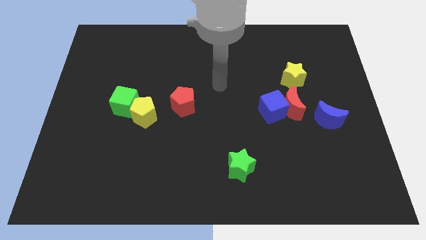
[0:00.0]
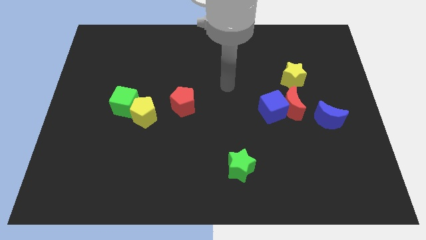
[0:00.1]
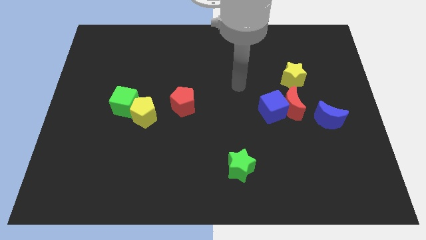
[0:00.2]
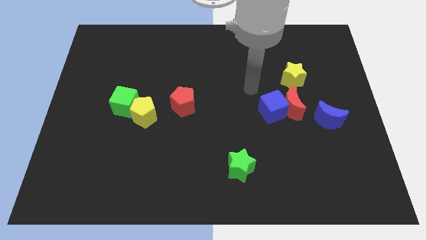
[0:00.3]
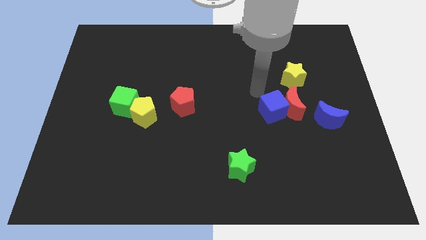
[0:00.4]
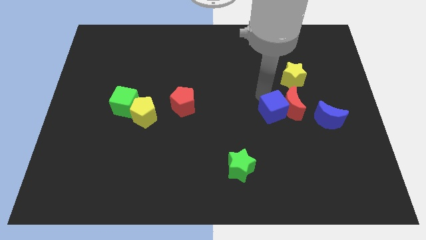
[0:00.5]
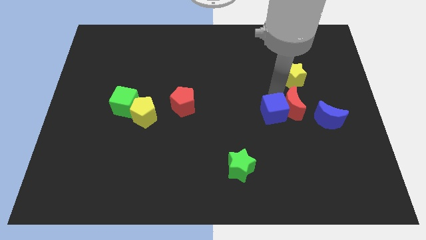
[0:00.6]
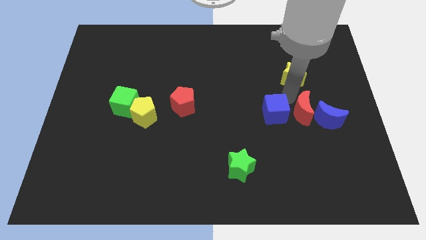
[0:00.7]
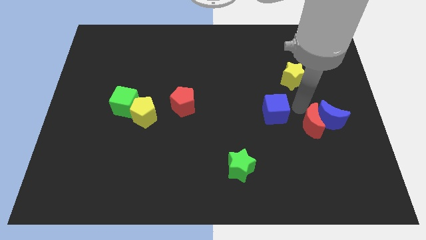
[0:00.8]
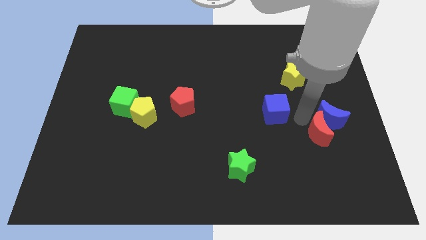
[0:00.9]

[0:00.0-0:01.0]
move the blue cube away from the red moon

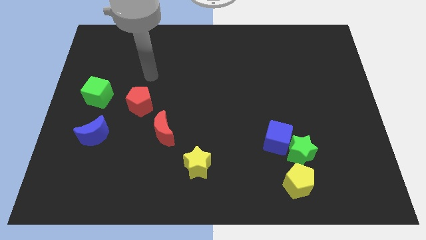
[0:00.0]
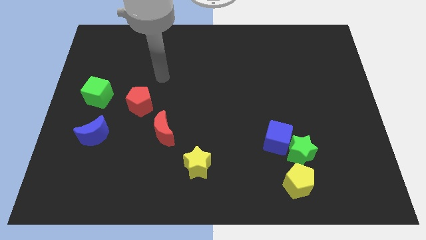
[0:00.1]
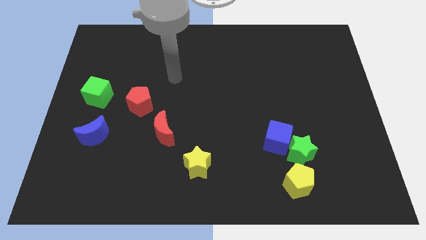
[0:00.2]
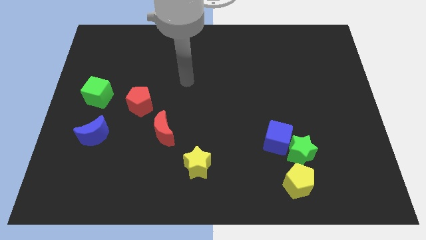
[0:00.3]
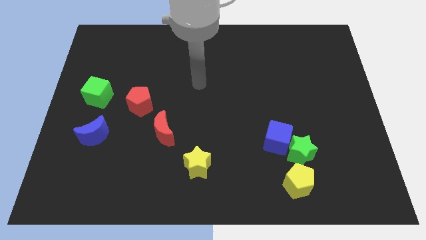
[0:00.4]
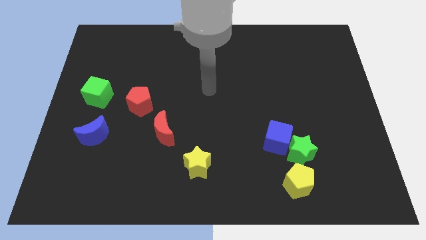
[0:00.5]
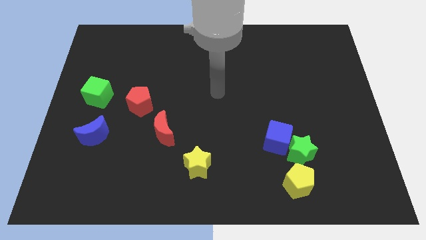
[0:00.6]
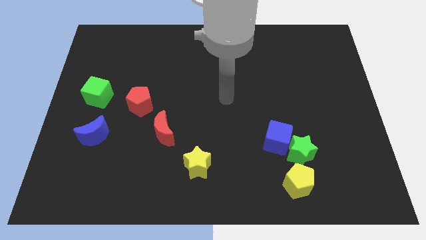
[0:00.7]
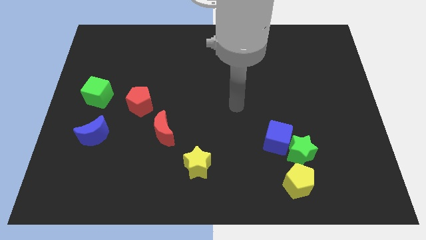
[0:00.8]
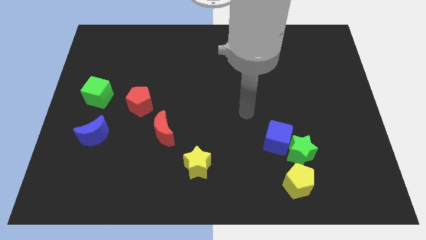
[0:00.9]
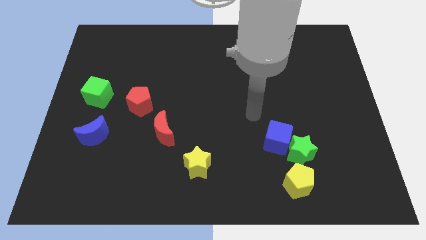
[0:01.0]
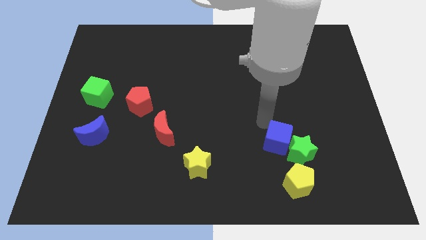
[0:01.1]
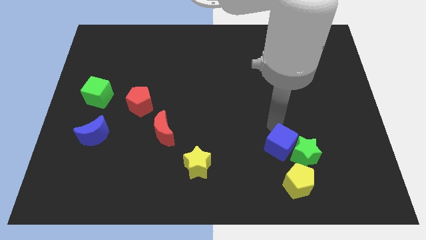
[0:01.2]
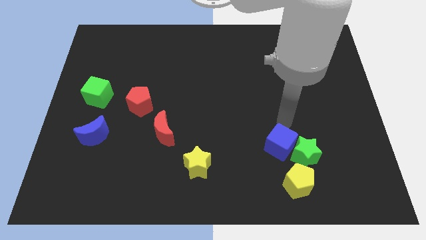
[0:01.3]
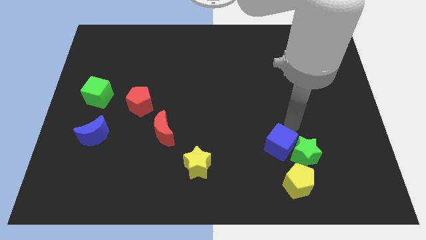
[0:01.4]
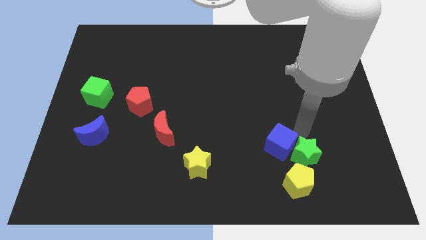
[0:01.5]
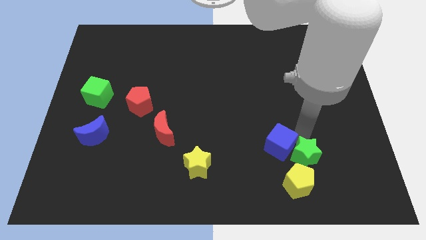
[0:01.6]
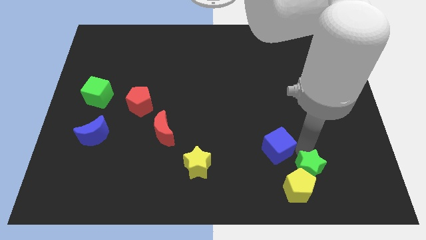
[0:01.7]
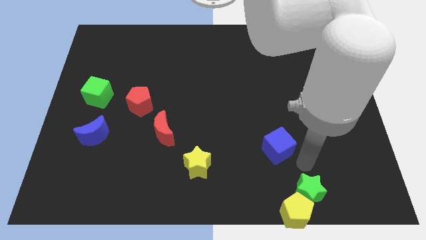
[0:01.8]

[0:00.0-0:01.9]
move the blue cube away from the green star

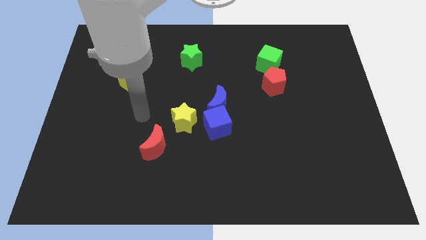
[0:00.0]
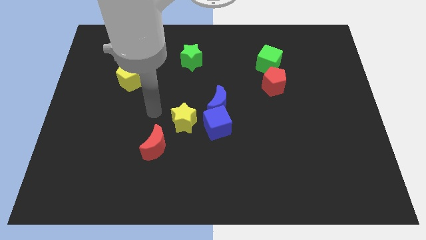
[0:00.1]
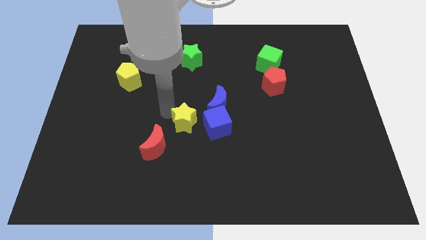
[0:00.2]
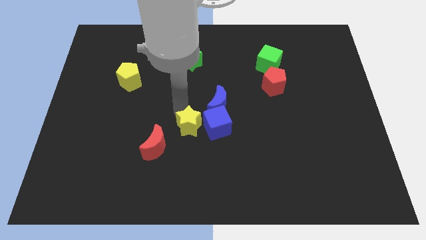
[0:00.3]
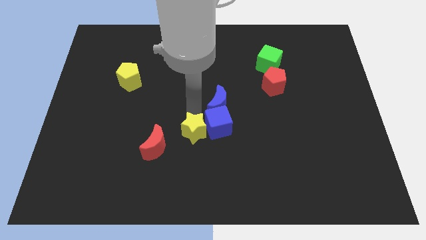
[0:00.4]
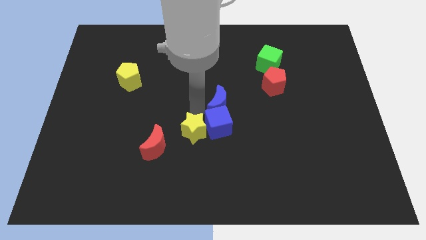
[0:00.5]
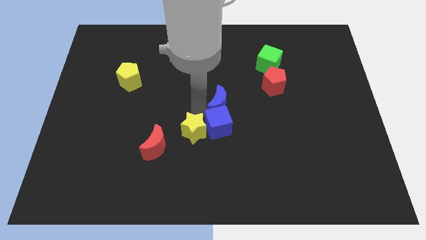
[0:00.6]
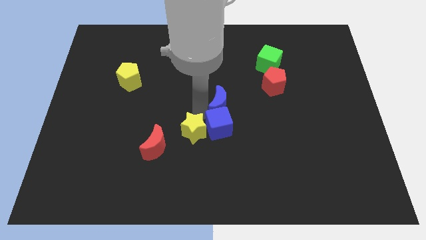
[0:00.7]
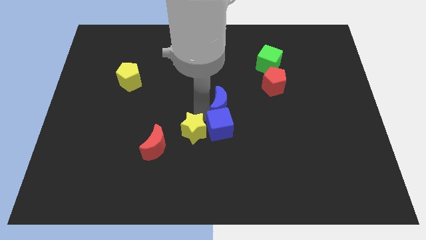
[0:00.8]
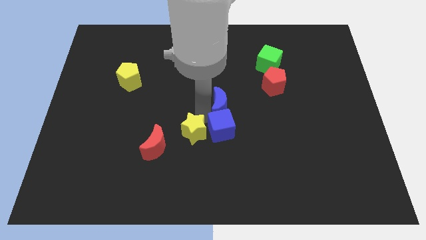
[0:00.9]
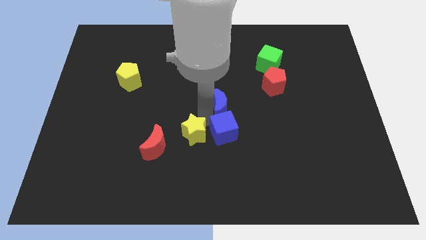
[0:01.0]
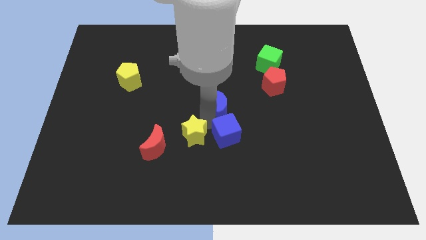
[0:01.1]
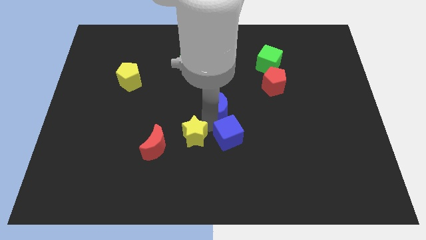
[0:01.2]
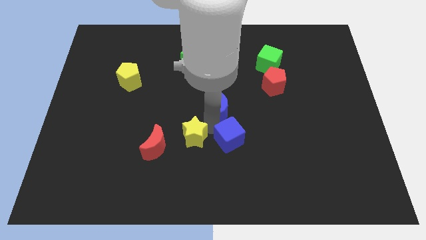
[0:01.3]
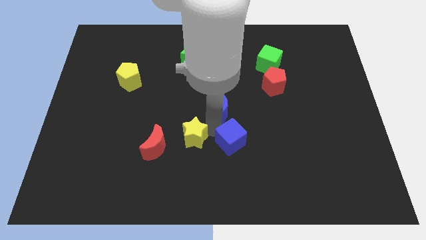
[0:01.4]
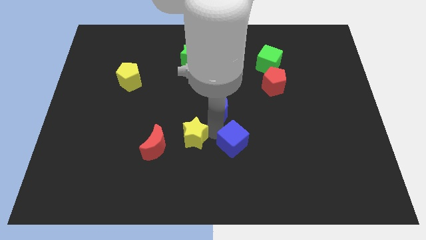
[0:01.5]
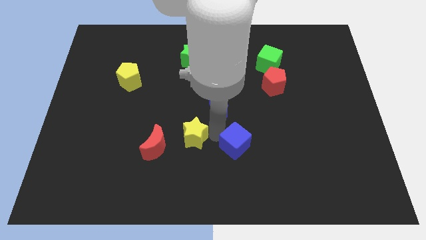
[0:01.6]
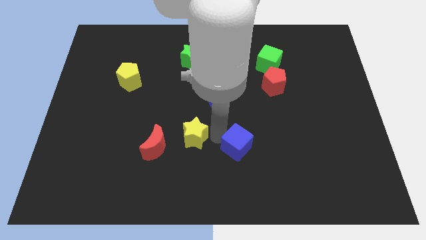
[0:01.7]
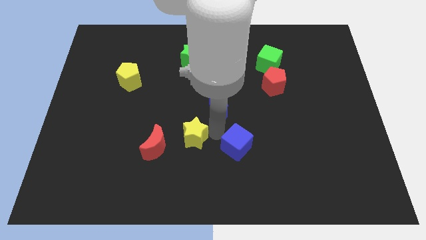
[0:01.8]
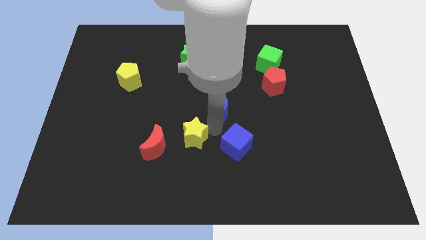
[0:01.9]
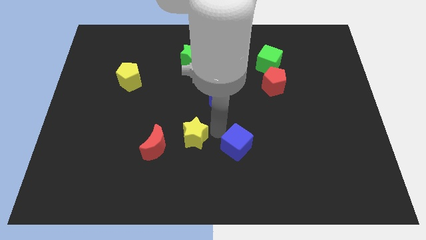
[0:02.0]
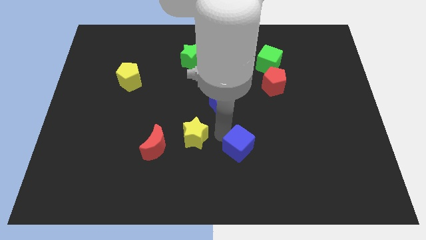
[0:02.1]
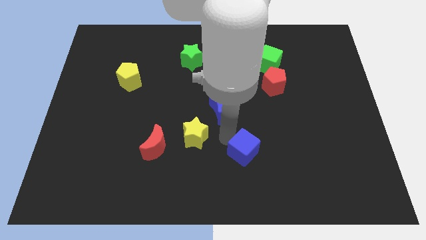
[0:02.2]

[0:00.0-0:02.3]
separate the blue cube from the blue moon and yellow star

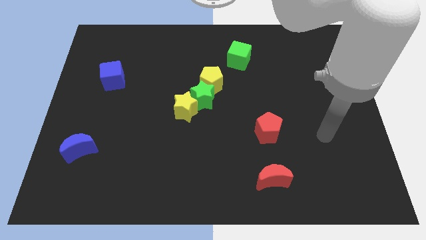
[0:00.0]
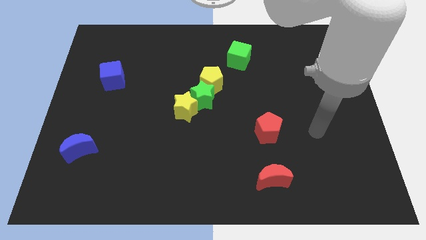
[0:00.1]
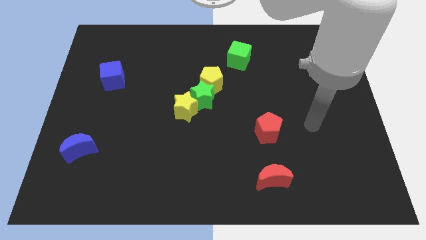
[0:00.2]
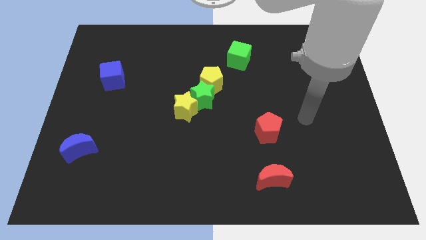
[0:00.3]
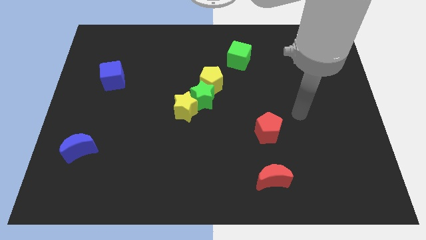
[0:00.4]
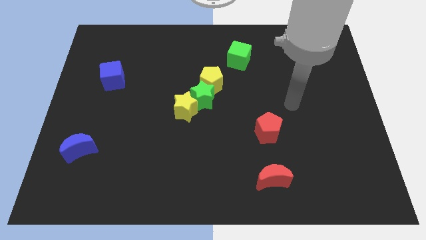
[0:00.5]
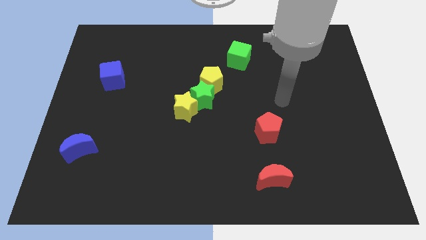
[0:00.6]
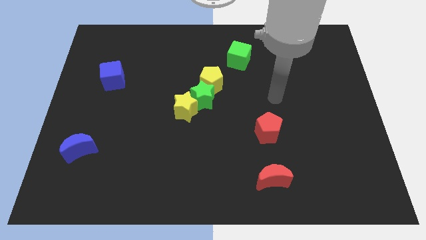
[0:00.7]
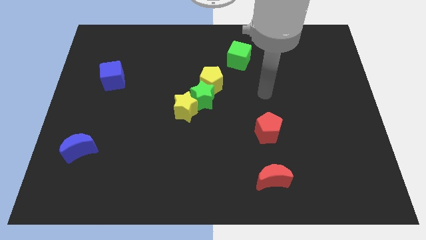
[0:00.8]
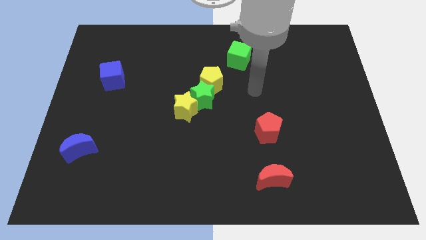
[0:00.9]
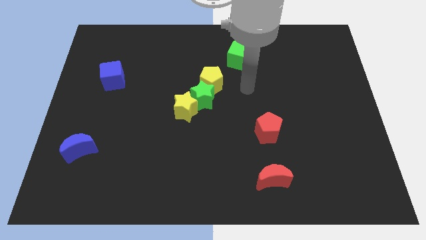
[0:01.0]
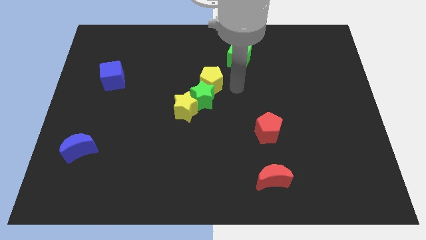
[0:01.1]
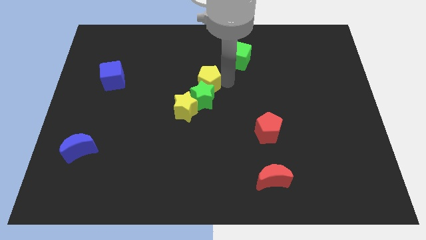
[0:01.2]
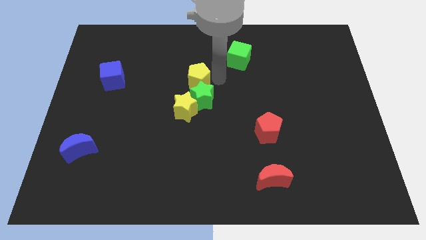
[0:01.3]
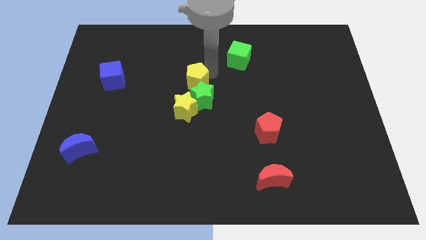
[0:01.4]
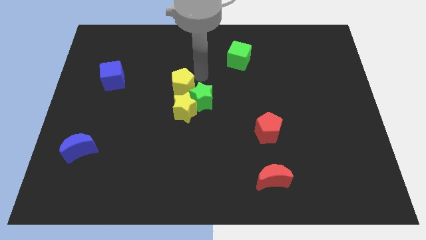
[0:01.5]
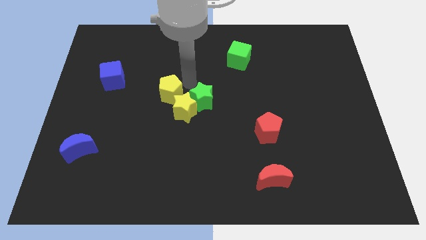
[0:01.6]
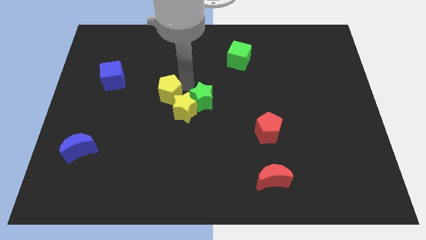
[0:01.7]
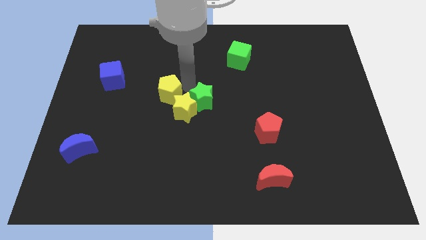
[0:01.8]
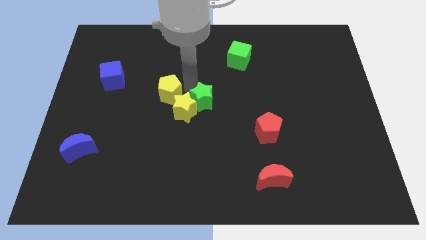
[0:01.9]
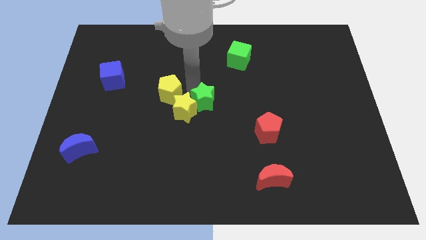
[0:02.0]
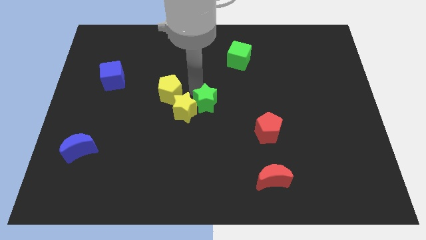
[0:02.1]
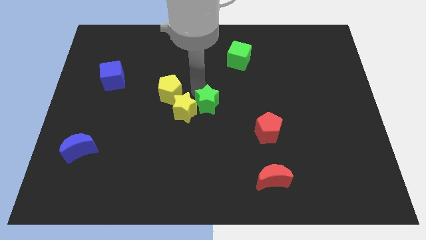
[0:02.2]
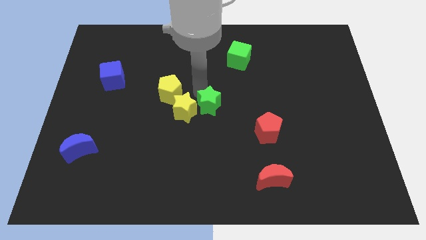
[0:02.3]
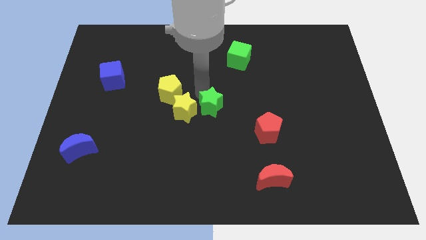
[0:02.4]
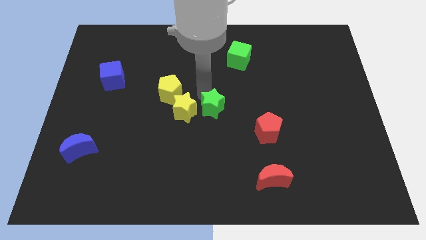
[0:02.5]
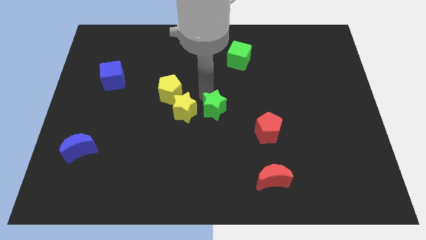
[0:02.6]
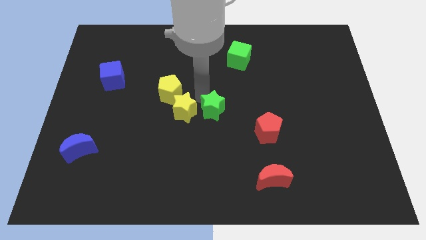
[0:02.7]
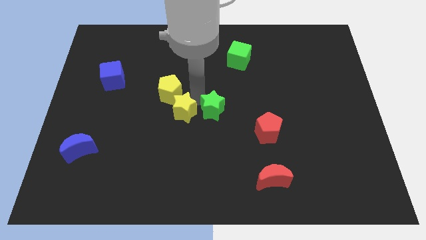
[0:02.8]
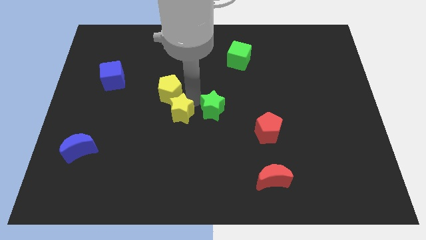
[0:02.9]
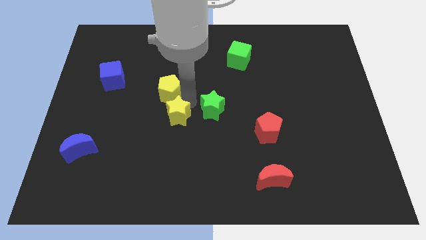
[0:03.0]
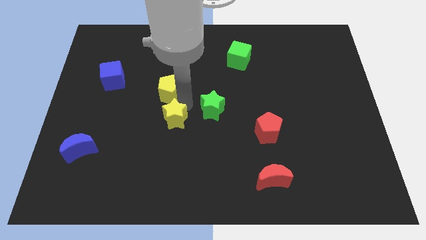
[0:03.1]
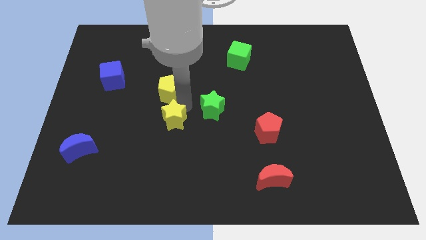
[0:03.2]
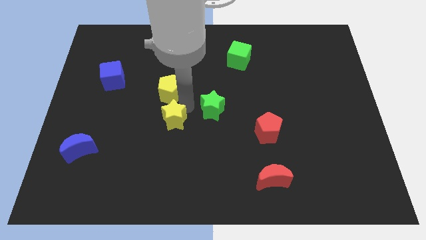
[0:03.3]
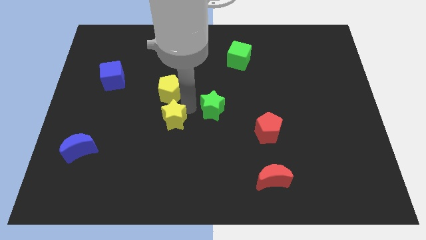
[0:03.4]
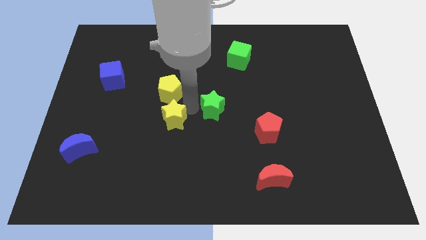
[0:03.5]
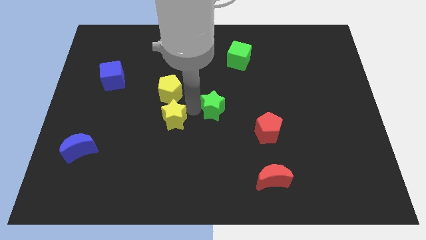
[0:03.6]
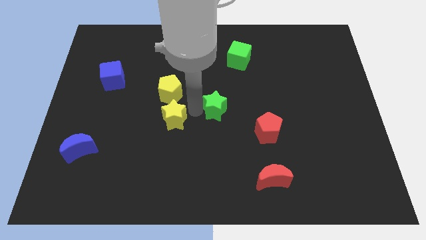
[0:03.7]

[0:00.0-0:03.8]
pull the green star apart from the yellow star and yellow pentagon

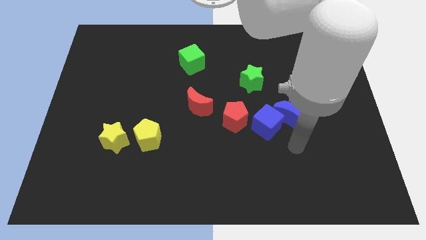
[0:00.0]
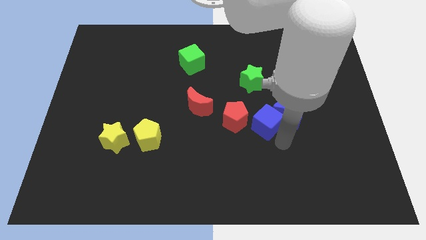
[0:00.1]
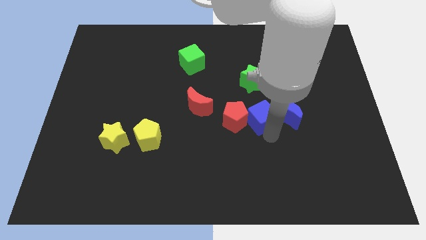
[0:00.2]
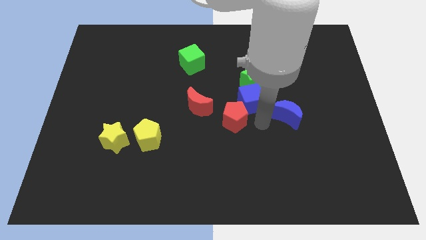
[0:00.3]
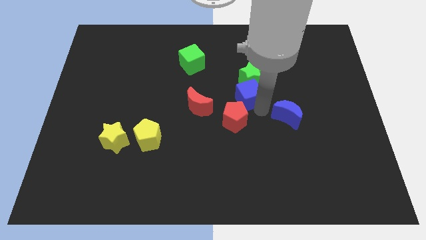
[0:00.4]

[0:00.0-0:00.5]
move the blue moon away from the blue cube
